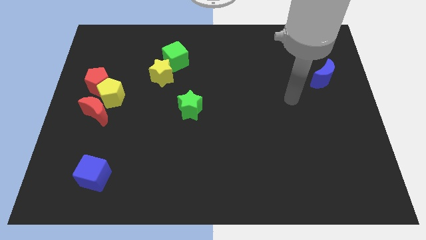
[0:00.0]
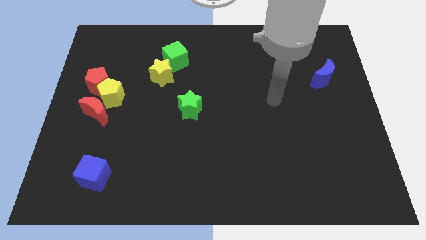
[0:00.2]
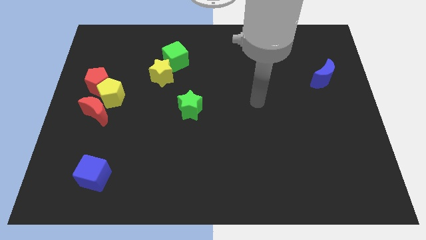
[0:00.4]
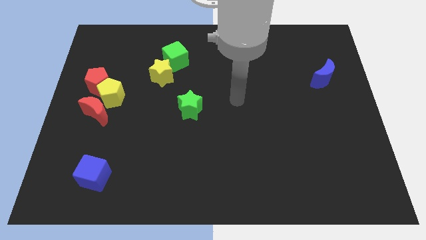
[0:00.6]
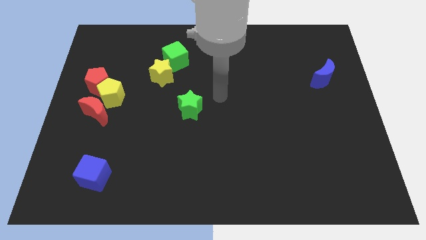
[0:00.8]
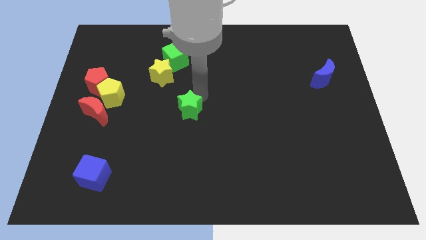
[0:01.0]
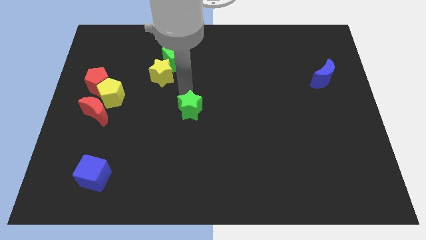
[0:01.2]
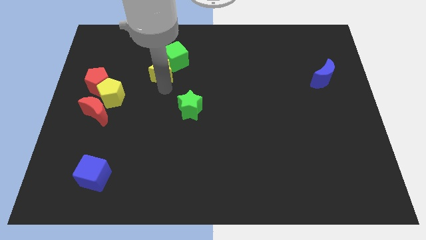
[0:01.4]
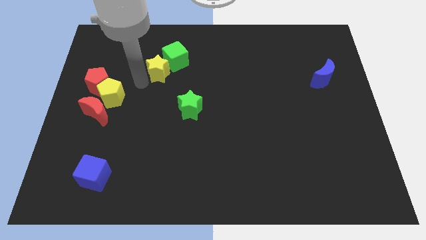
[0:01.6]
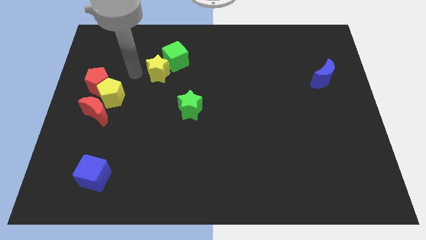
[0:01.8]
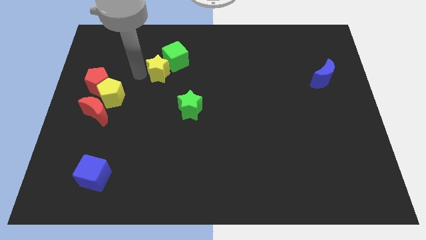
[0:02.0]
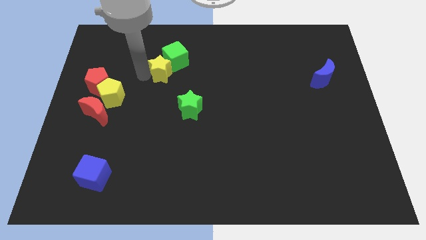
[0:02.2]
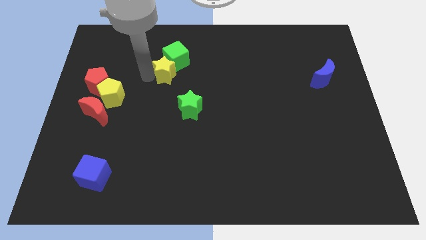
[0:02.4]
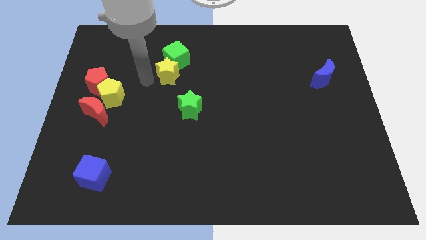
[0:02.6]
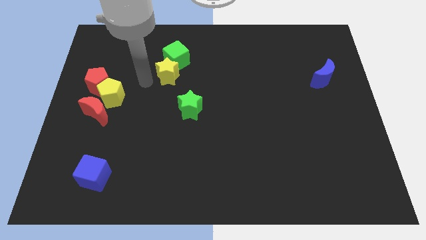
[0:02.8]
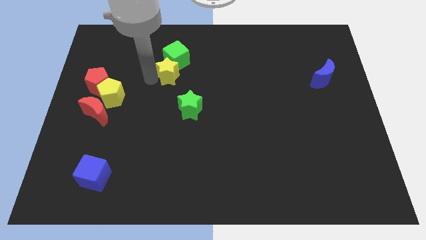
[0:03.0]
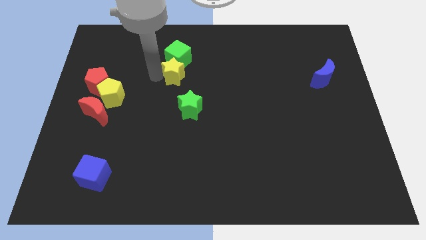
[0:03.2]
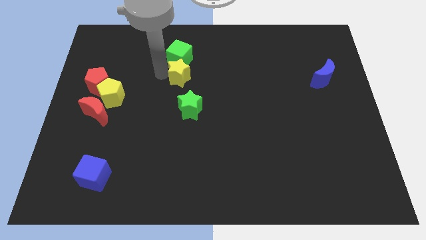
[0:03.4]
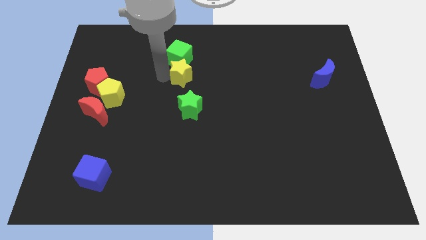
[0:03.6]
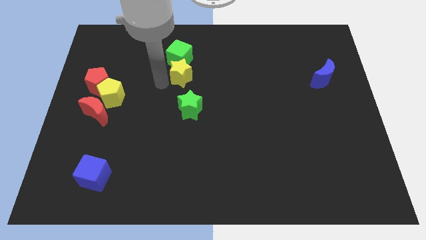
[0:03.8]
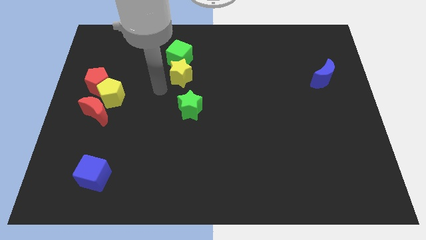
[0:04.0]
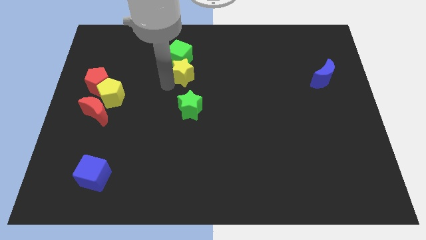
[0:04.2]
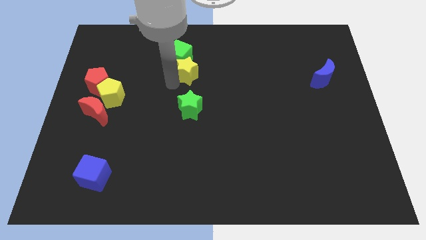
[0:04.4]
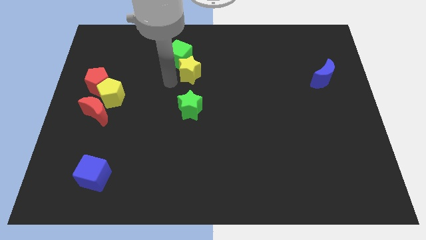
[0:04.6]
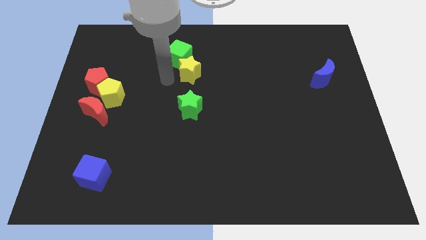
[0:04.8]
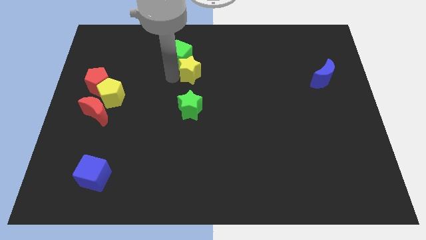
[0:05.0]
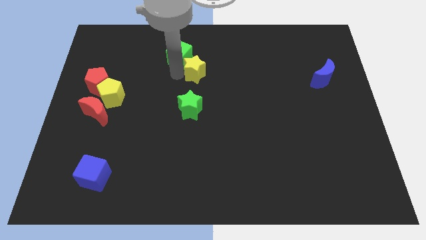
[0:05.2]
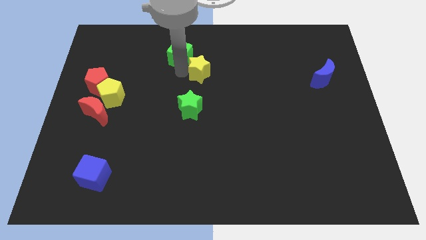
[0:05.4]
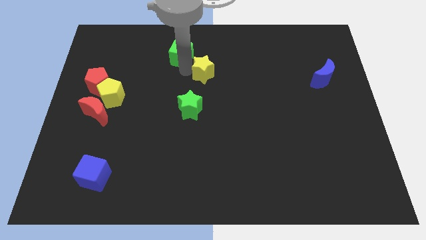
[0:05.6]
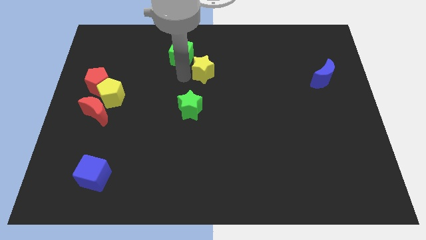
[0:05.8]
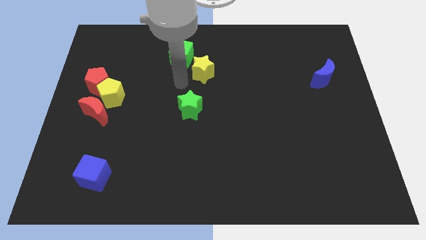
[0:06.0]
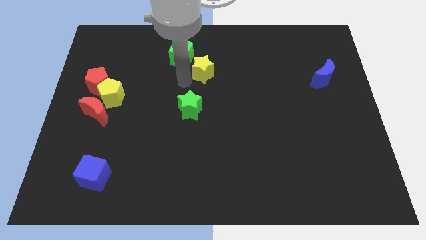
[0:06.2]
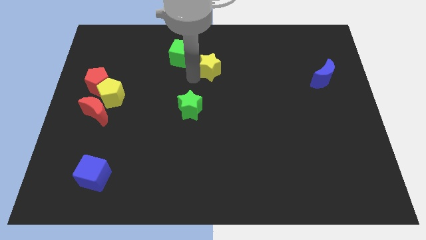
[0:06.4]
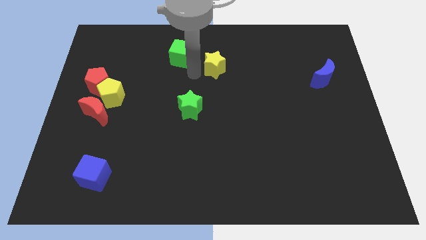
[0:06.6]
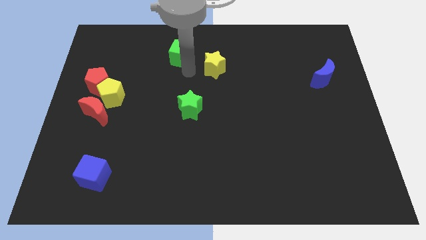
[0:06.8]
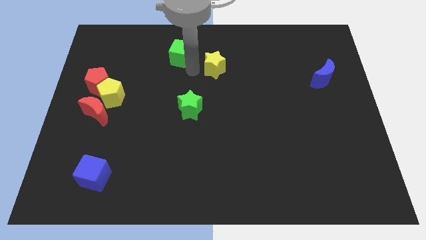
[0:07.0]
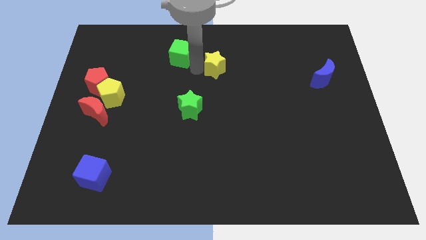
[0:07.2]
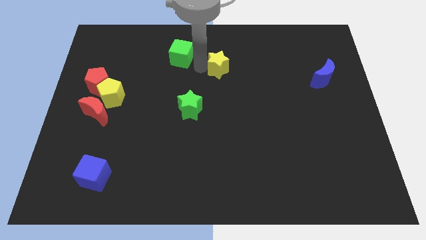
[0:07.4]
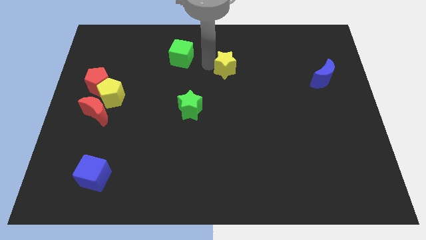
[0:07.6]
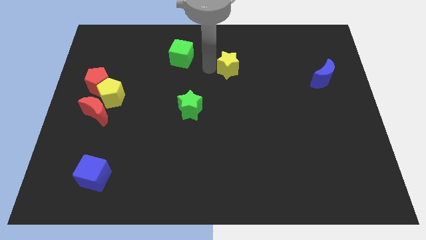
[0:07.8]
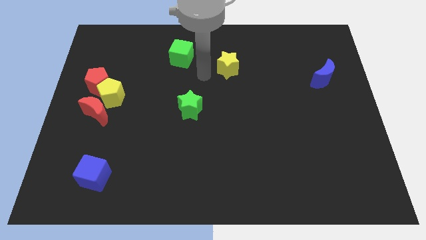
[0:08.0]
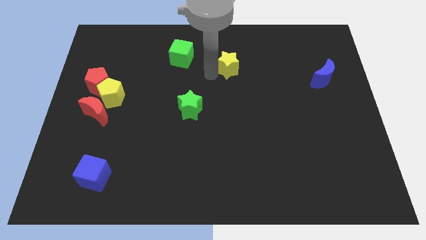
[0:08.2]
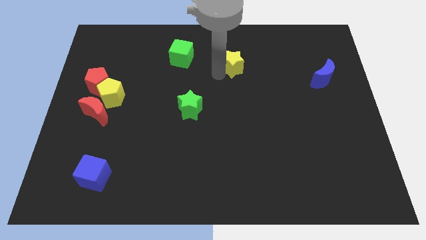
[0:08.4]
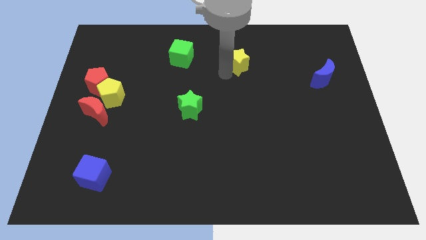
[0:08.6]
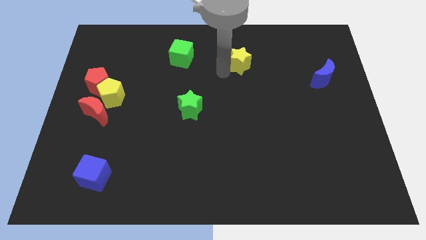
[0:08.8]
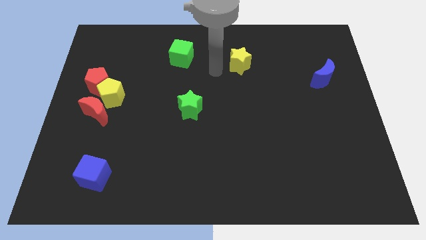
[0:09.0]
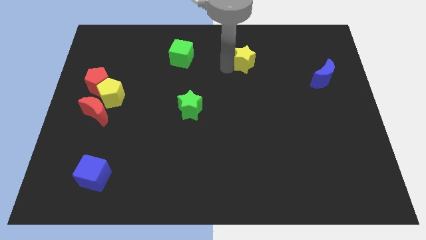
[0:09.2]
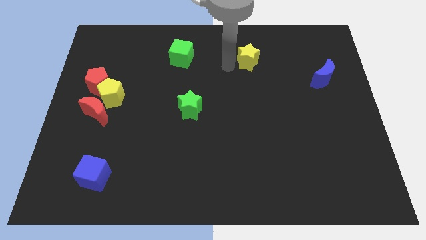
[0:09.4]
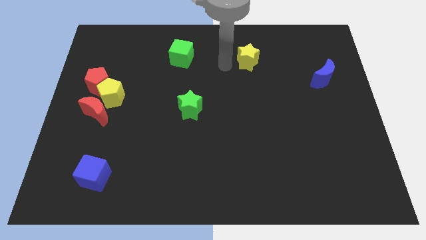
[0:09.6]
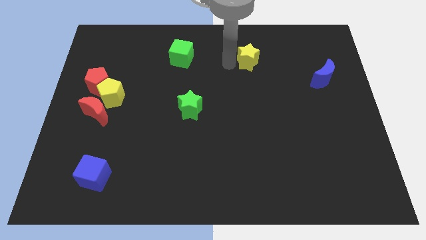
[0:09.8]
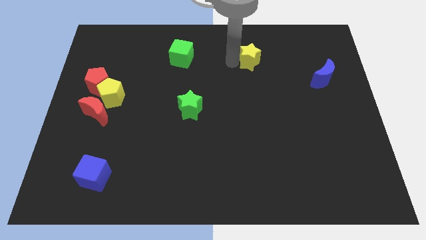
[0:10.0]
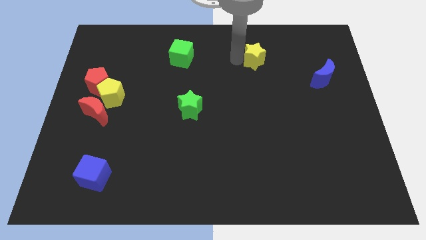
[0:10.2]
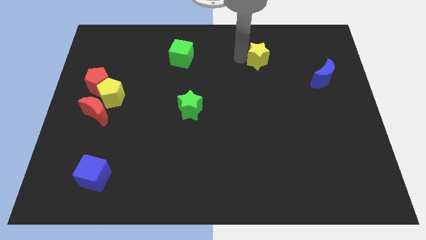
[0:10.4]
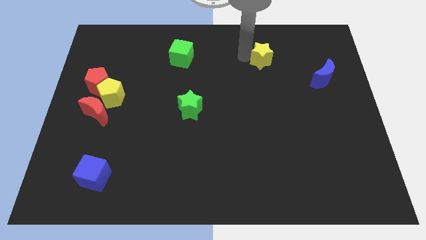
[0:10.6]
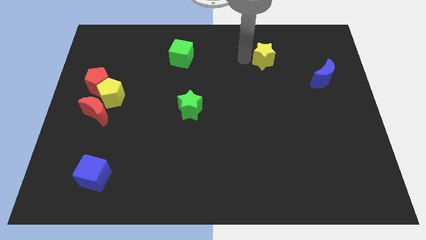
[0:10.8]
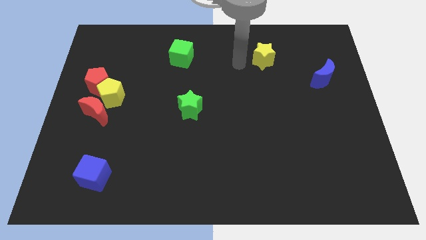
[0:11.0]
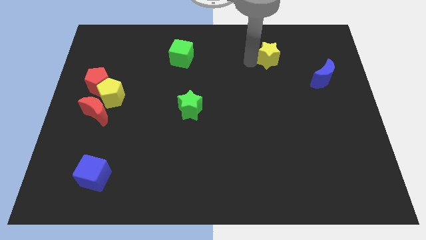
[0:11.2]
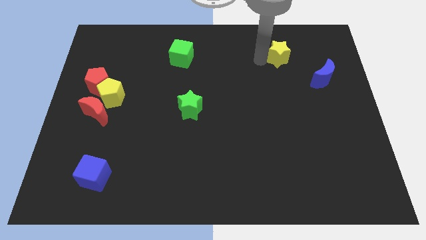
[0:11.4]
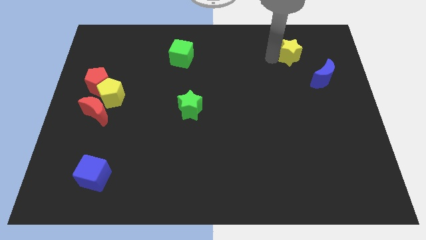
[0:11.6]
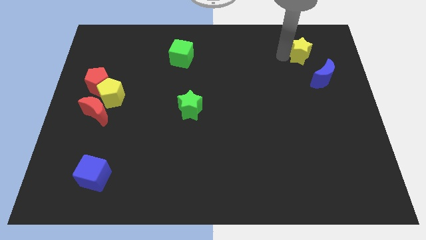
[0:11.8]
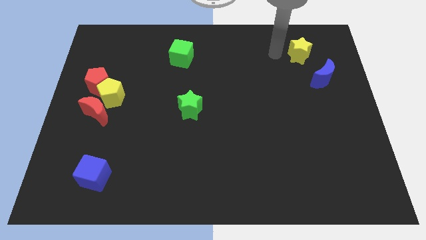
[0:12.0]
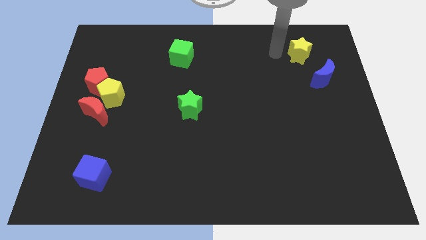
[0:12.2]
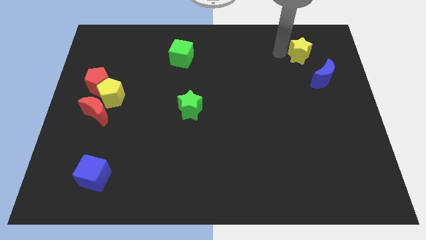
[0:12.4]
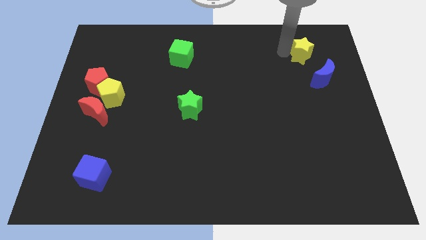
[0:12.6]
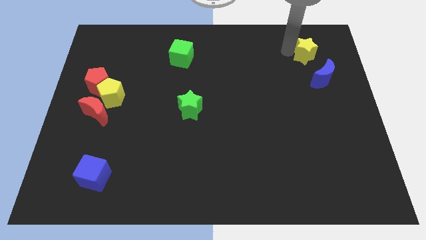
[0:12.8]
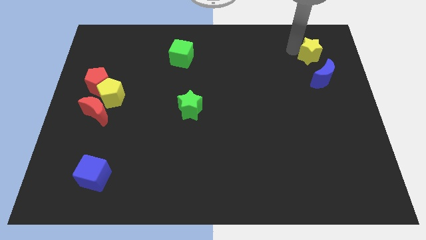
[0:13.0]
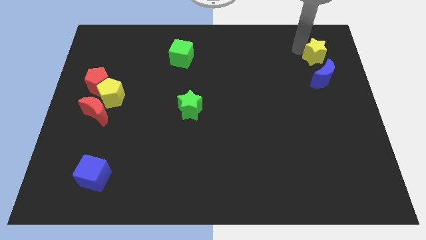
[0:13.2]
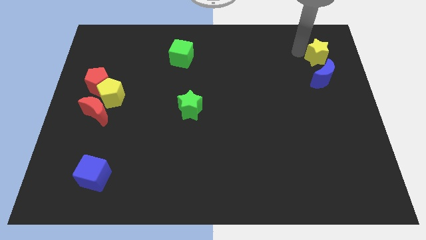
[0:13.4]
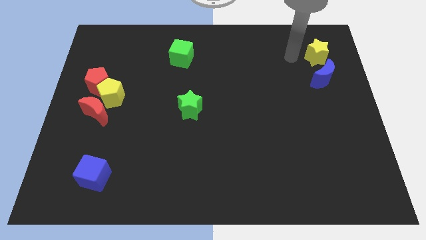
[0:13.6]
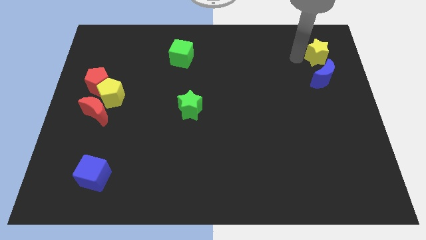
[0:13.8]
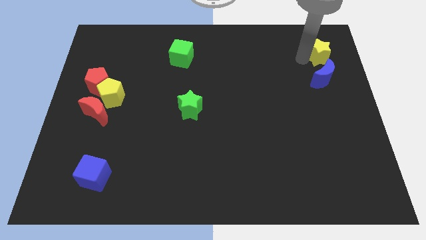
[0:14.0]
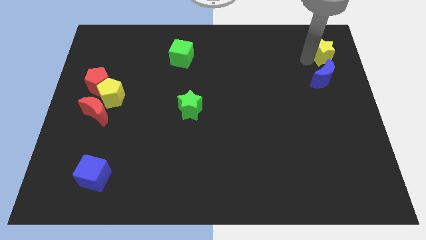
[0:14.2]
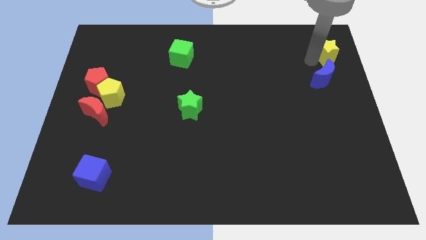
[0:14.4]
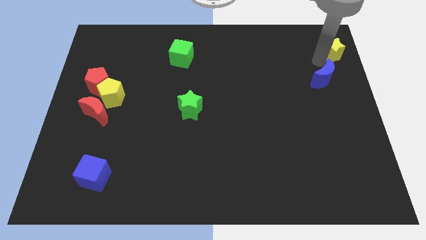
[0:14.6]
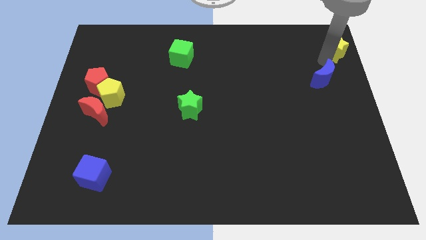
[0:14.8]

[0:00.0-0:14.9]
put the yellow star to the top right
